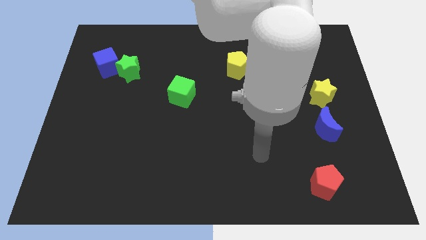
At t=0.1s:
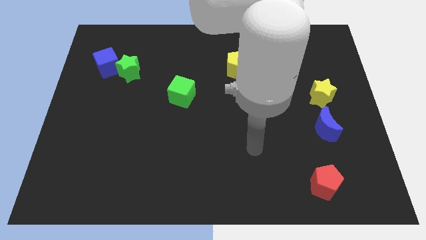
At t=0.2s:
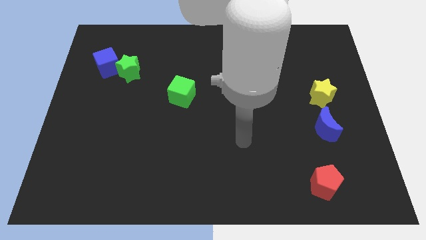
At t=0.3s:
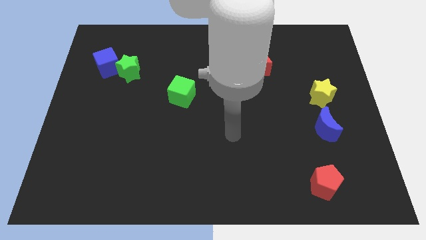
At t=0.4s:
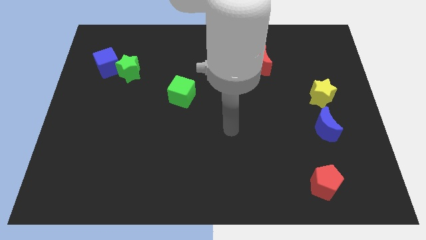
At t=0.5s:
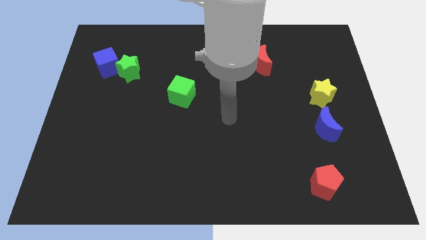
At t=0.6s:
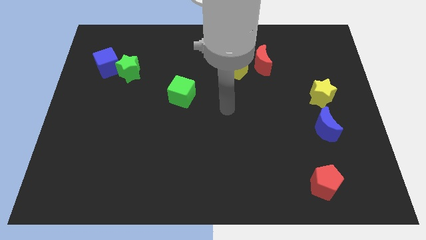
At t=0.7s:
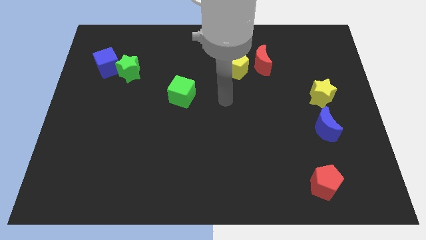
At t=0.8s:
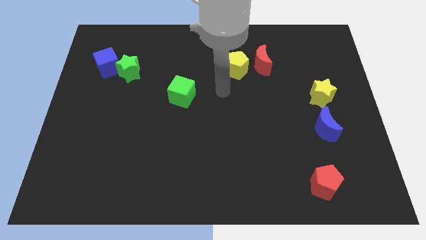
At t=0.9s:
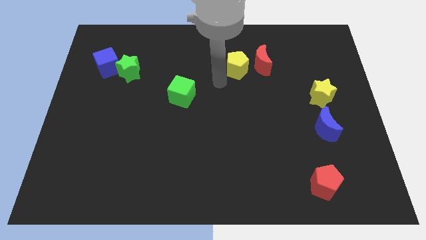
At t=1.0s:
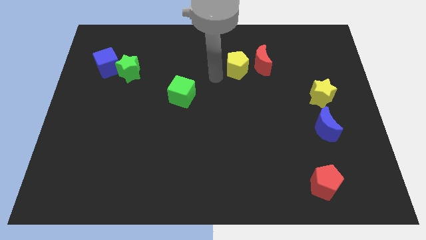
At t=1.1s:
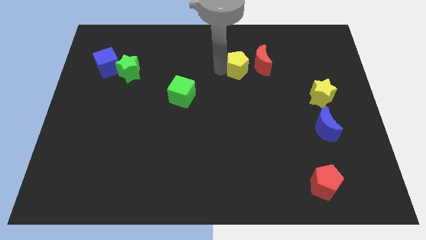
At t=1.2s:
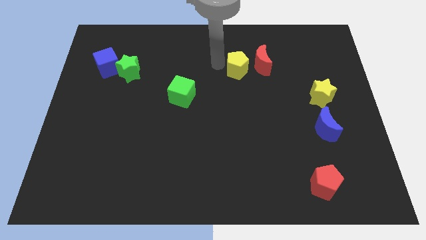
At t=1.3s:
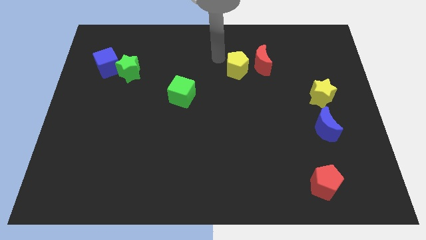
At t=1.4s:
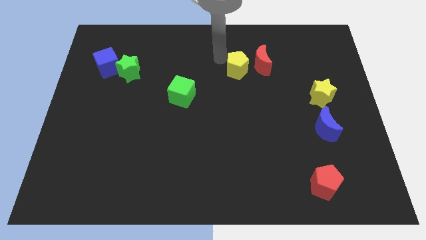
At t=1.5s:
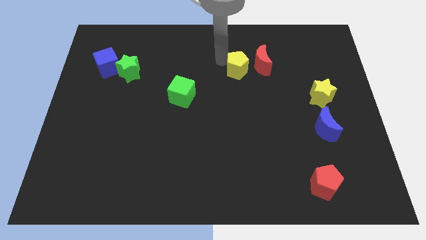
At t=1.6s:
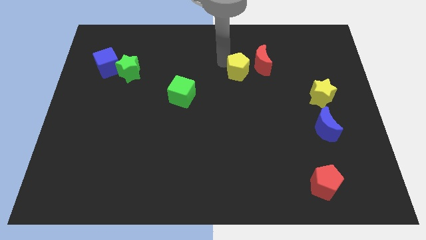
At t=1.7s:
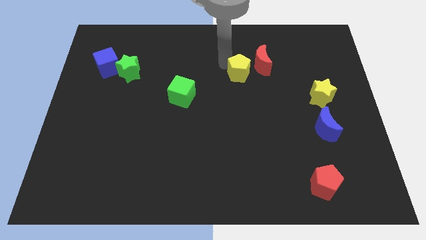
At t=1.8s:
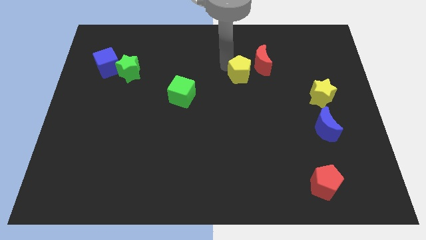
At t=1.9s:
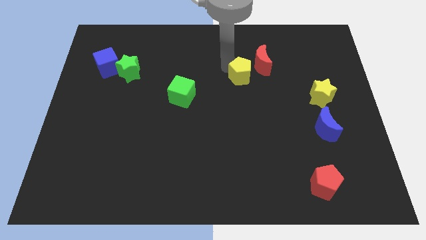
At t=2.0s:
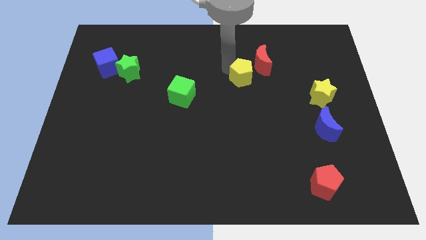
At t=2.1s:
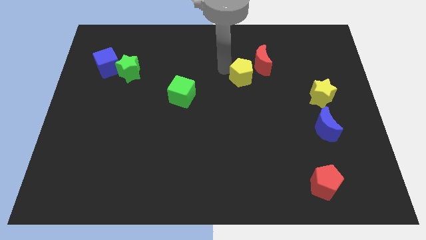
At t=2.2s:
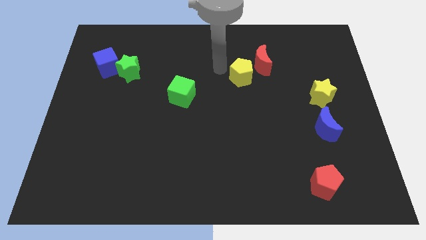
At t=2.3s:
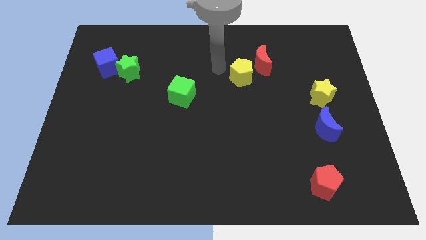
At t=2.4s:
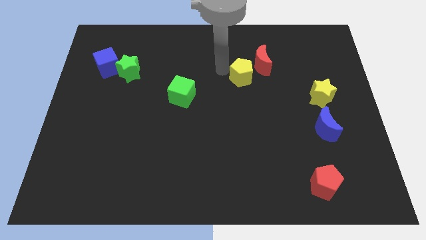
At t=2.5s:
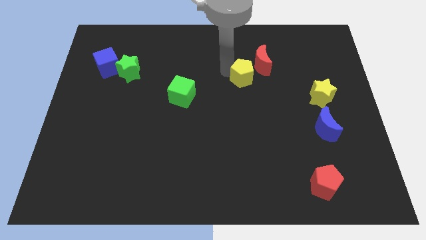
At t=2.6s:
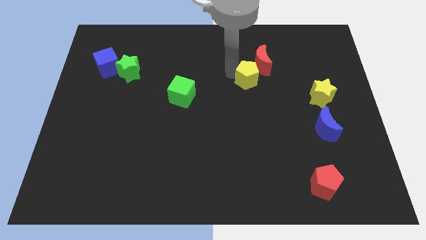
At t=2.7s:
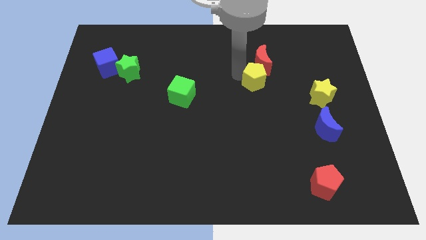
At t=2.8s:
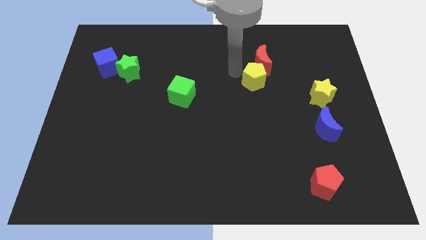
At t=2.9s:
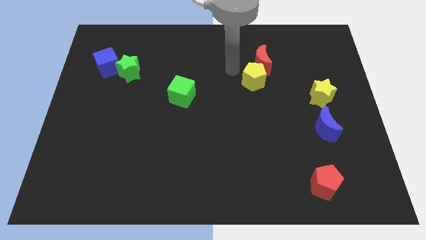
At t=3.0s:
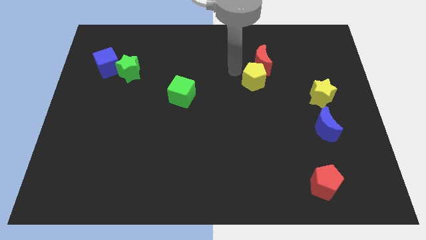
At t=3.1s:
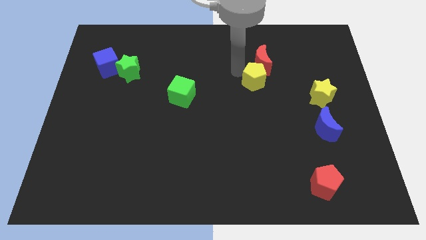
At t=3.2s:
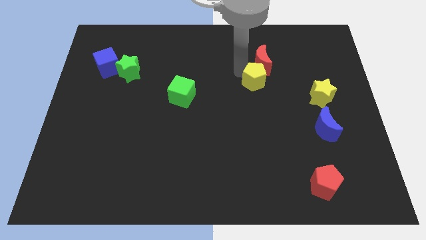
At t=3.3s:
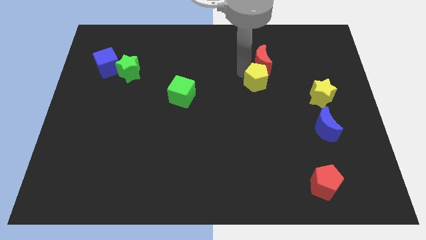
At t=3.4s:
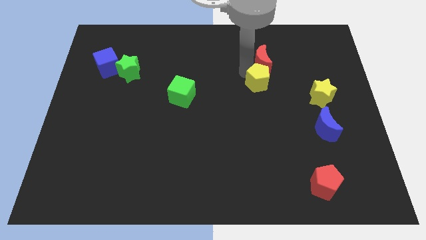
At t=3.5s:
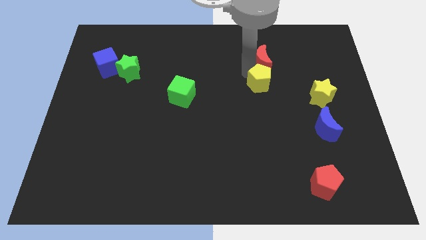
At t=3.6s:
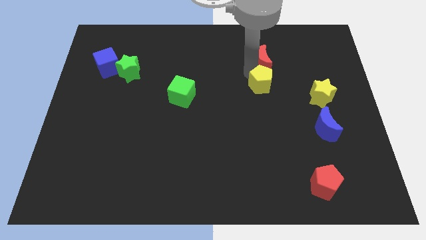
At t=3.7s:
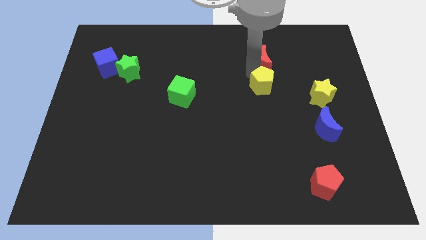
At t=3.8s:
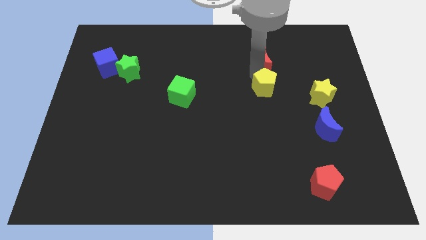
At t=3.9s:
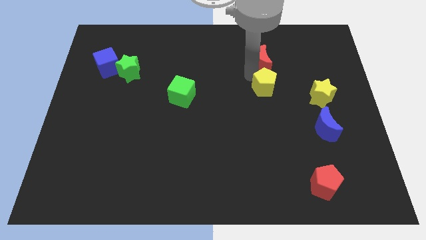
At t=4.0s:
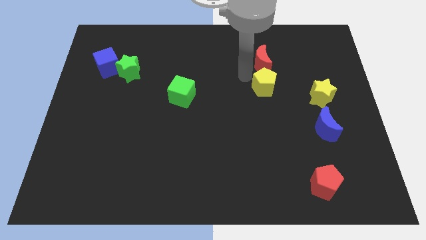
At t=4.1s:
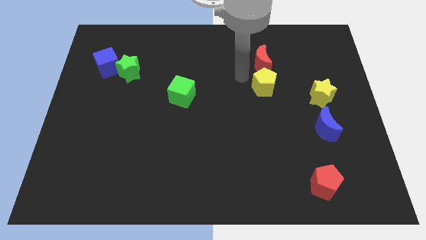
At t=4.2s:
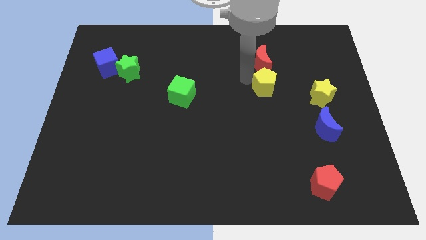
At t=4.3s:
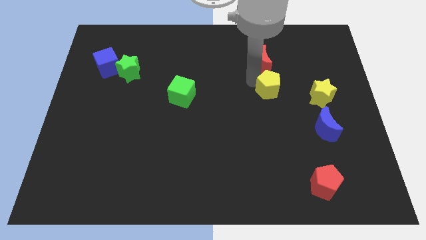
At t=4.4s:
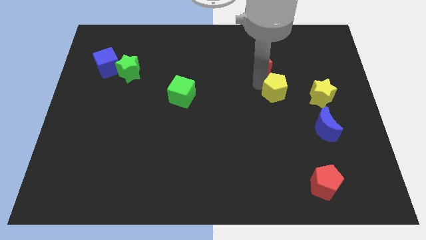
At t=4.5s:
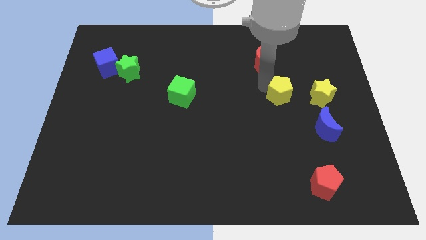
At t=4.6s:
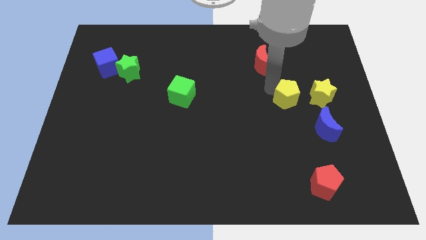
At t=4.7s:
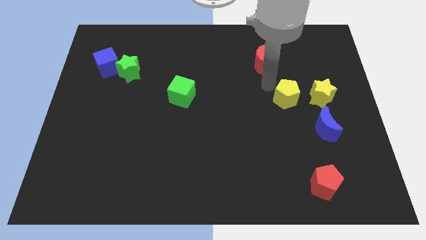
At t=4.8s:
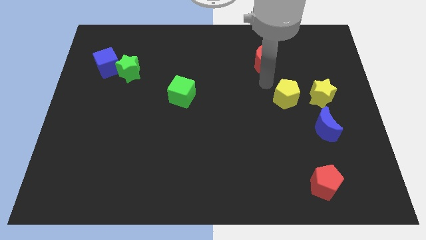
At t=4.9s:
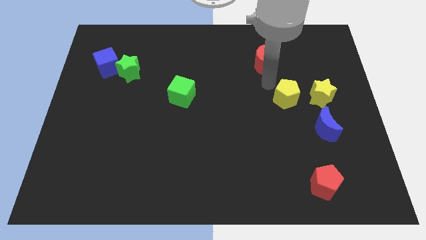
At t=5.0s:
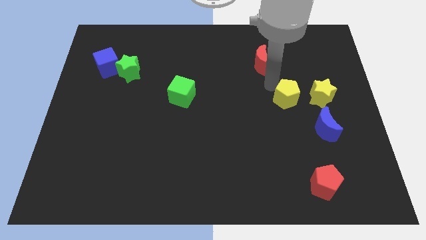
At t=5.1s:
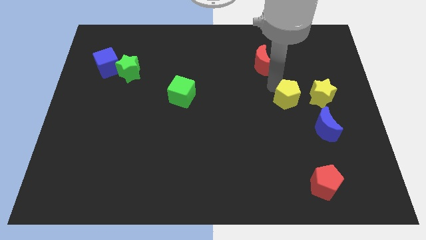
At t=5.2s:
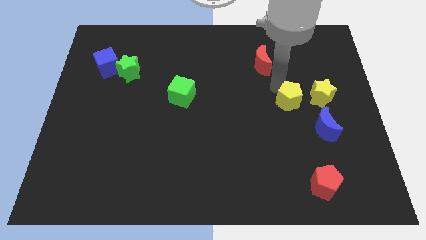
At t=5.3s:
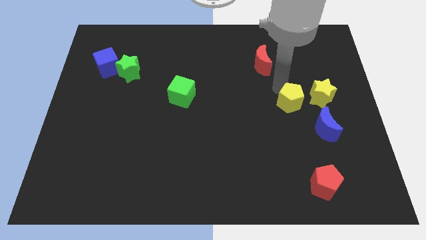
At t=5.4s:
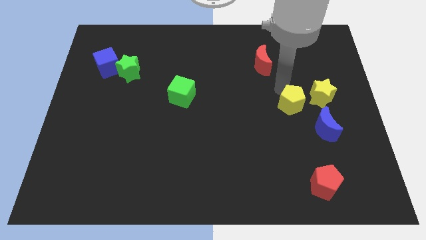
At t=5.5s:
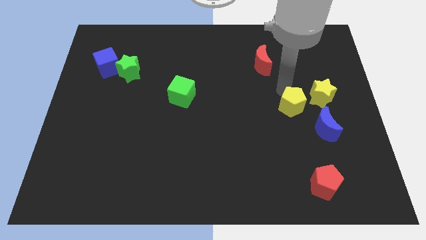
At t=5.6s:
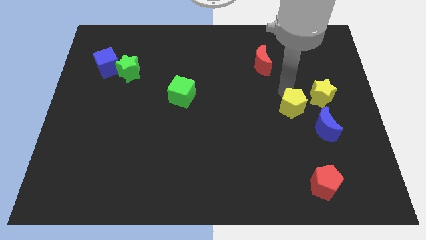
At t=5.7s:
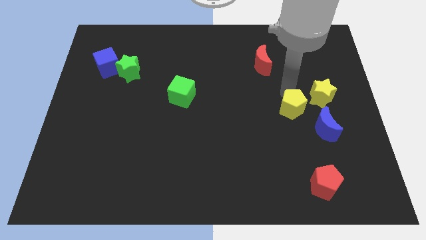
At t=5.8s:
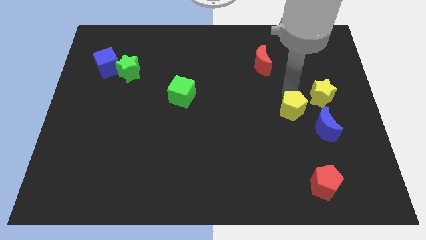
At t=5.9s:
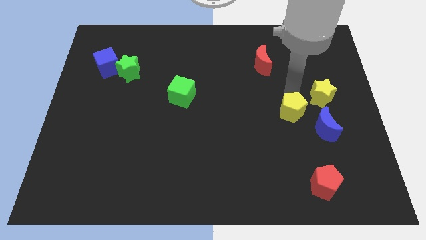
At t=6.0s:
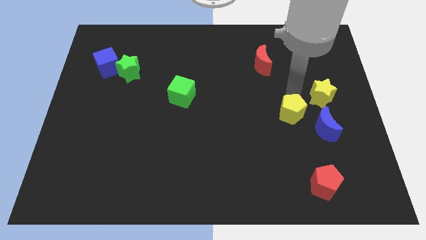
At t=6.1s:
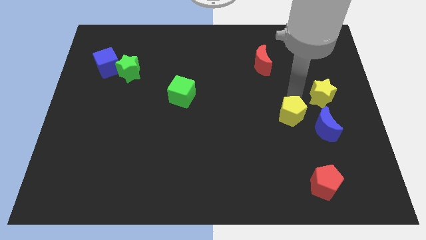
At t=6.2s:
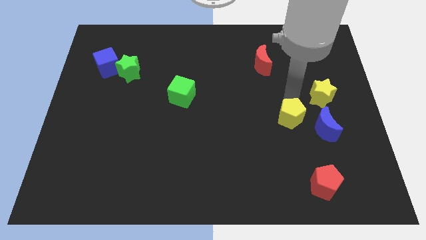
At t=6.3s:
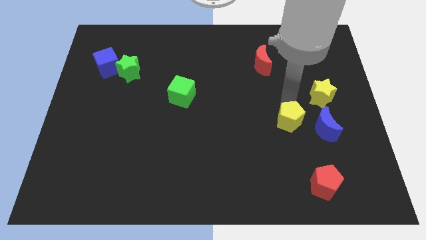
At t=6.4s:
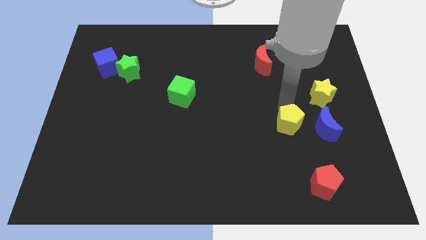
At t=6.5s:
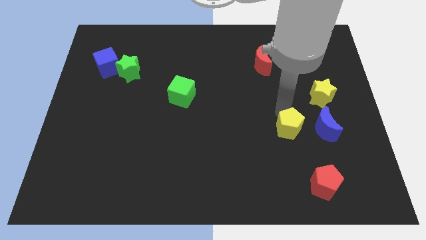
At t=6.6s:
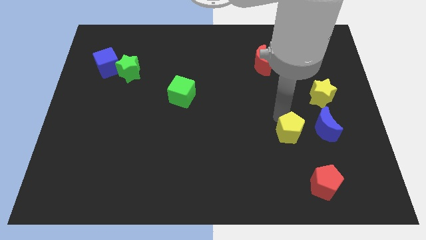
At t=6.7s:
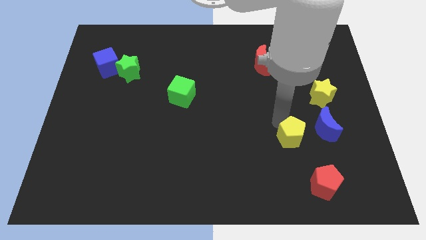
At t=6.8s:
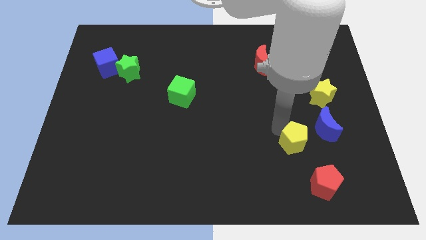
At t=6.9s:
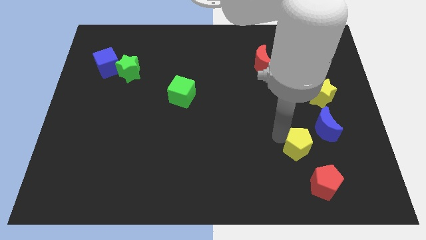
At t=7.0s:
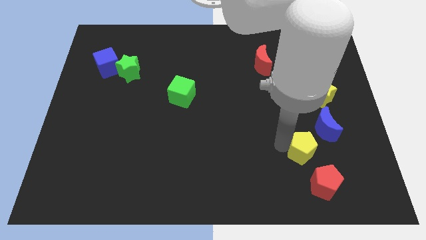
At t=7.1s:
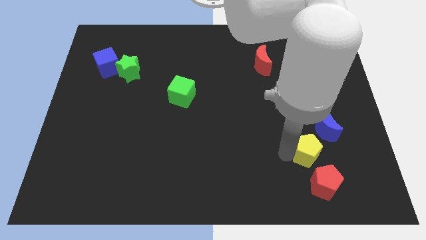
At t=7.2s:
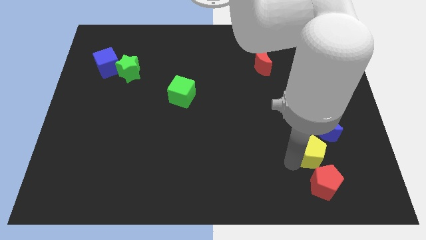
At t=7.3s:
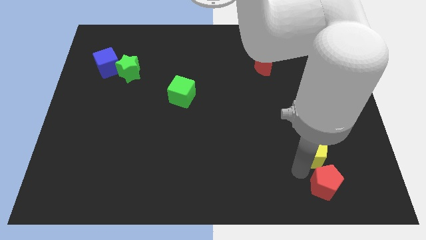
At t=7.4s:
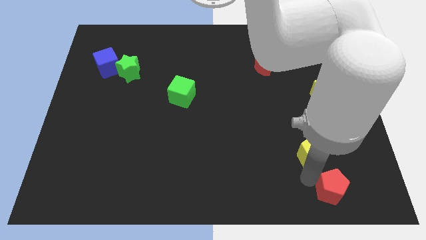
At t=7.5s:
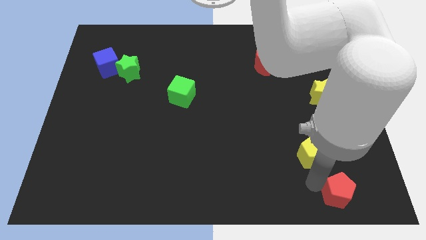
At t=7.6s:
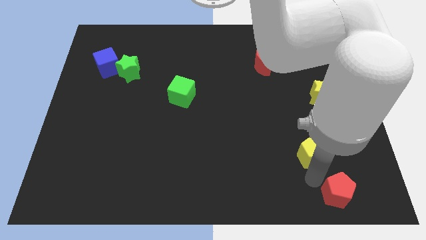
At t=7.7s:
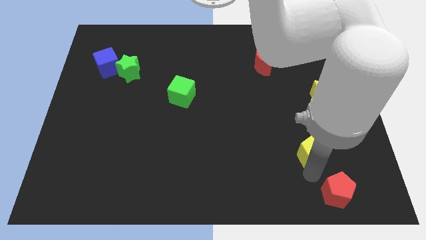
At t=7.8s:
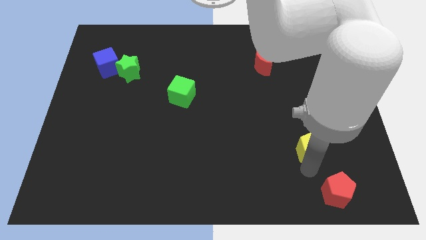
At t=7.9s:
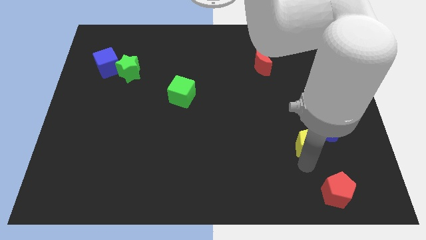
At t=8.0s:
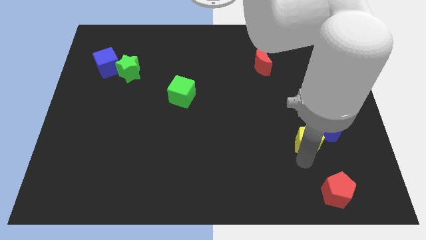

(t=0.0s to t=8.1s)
slide the yellow pentagon close to the blue moon
